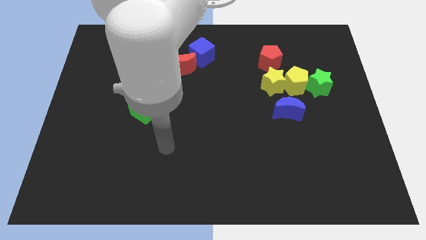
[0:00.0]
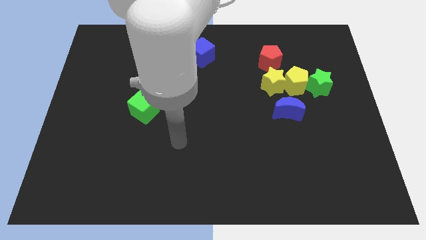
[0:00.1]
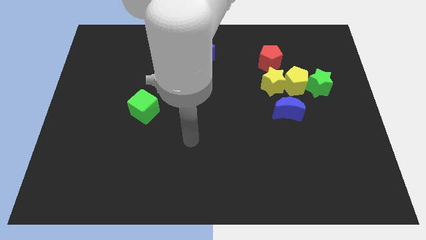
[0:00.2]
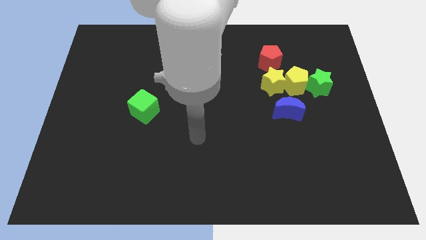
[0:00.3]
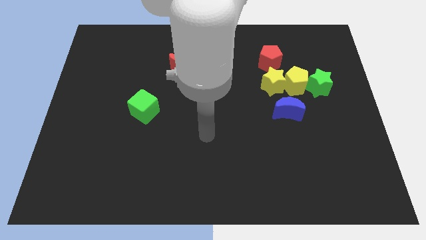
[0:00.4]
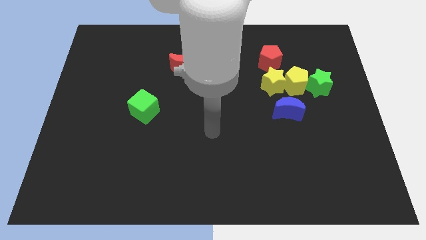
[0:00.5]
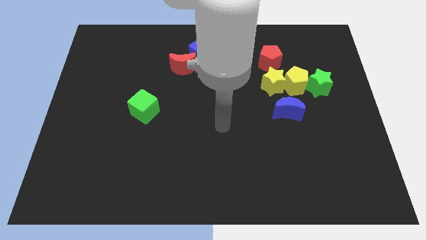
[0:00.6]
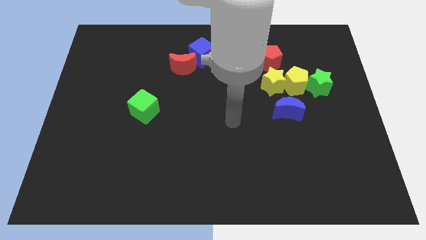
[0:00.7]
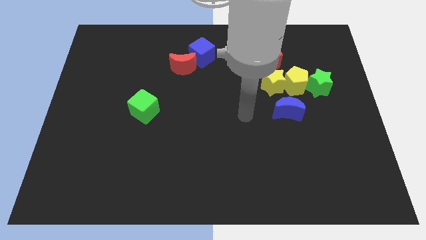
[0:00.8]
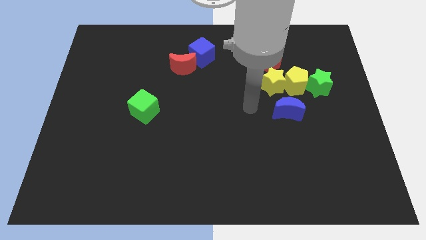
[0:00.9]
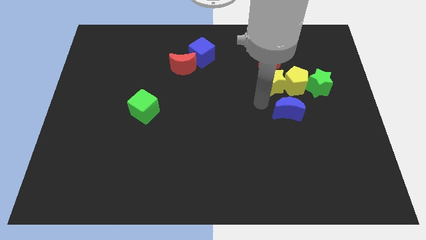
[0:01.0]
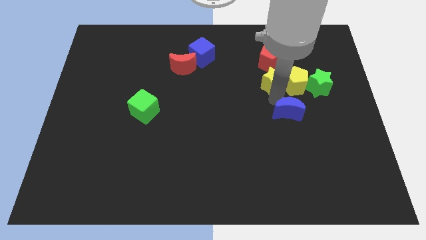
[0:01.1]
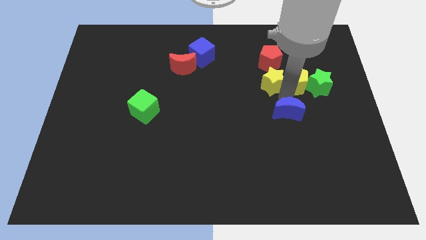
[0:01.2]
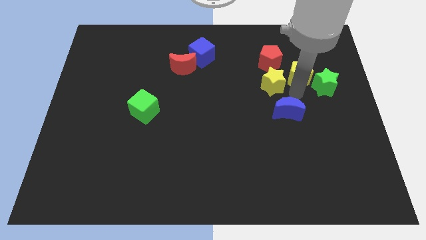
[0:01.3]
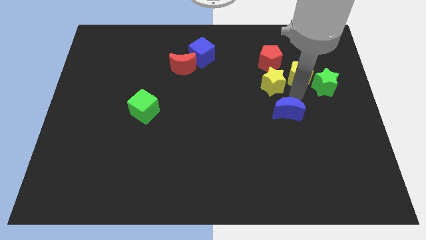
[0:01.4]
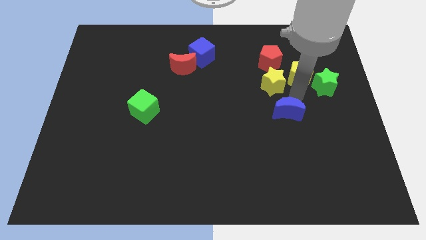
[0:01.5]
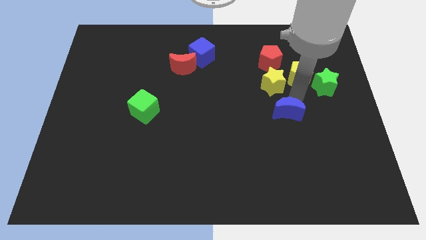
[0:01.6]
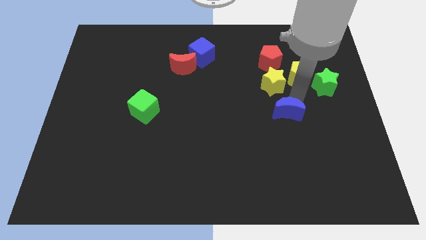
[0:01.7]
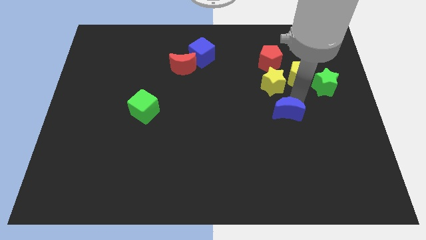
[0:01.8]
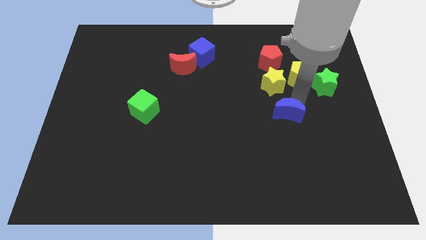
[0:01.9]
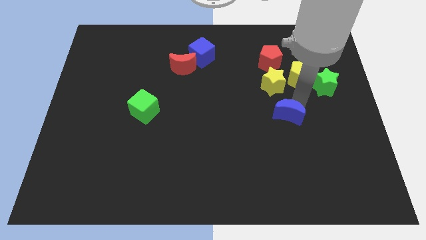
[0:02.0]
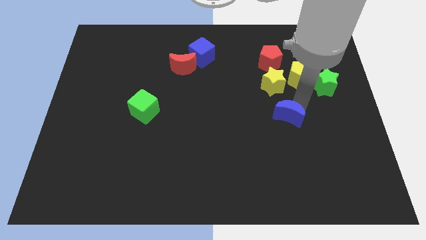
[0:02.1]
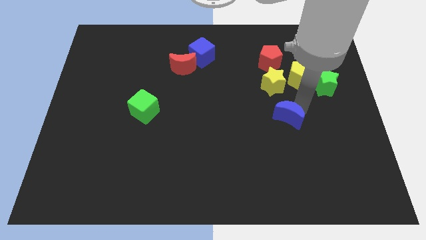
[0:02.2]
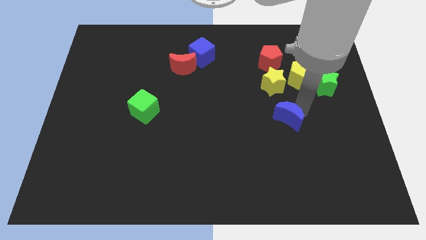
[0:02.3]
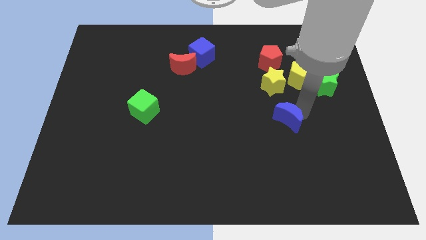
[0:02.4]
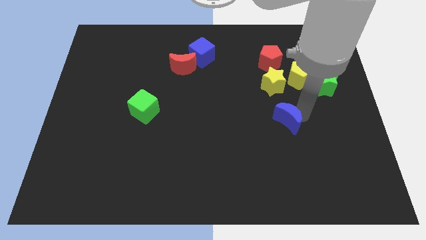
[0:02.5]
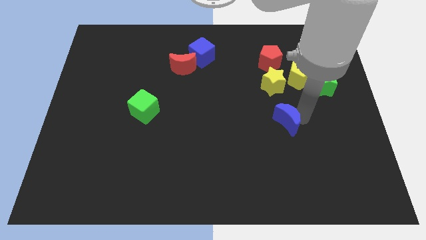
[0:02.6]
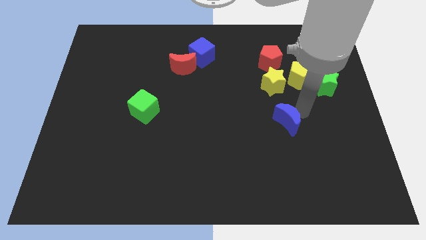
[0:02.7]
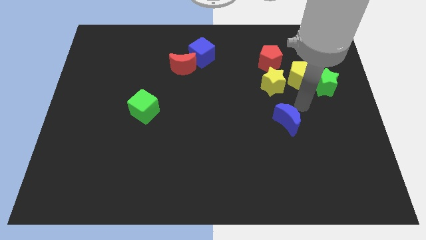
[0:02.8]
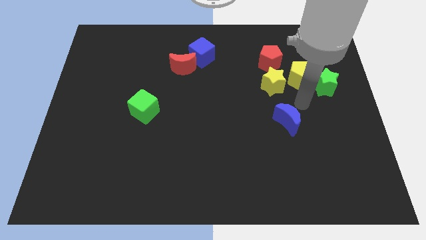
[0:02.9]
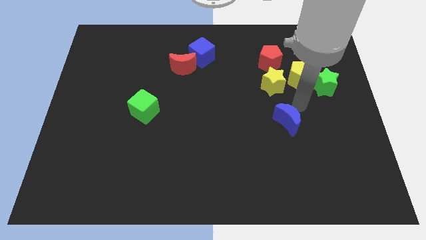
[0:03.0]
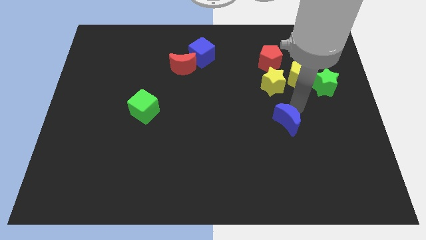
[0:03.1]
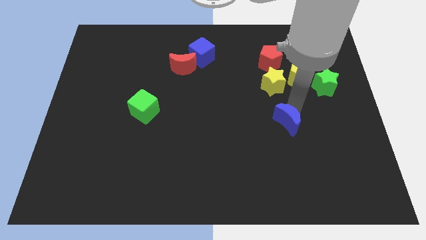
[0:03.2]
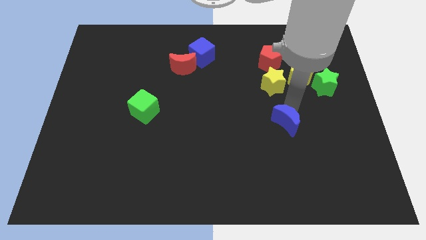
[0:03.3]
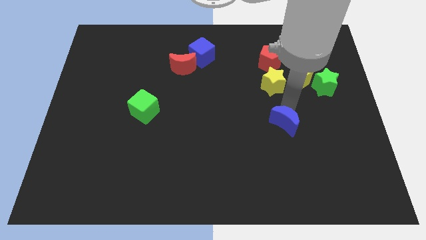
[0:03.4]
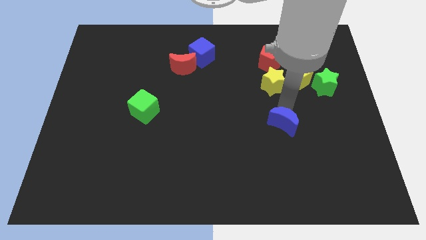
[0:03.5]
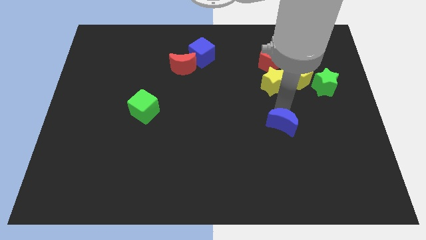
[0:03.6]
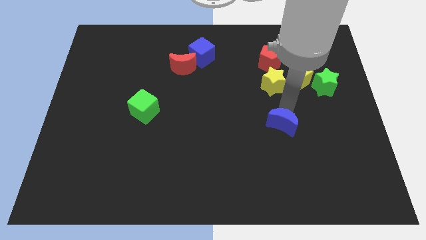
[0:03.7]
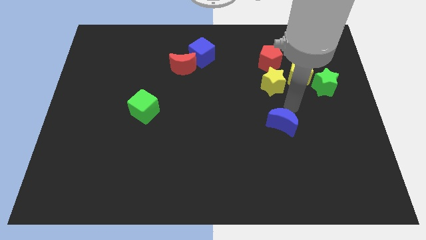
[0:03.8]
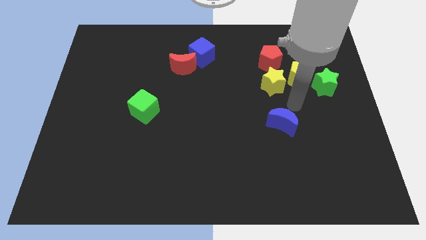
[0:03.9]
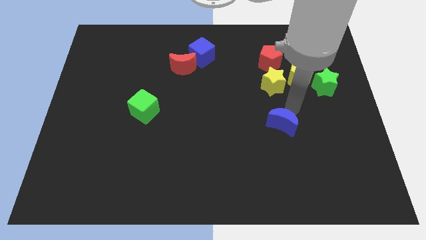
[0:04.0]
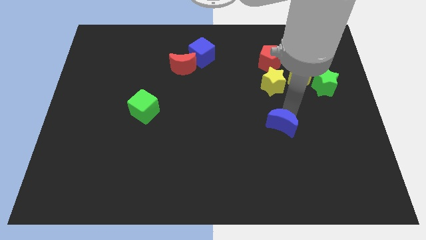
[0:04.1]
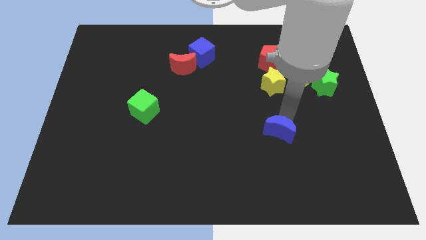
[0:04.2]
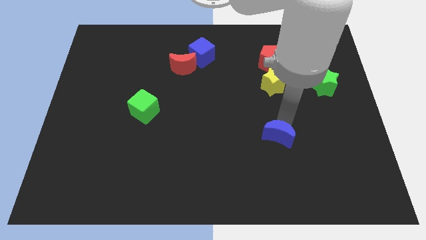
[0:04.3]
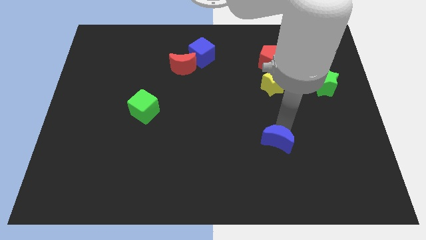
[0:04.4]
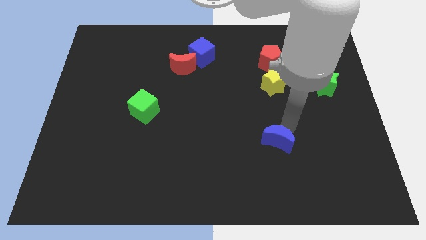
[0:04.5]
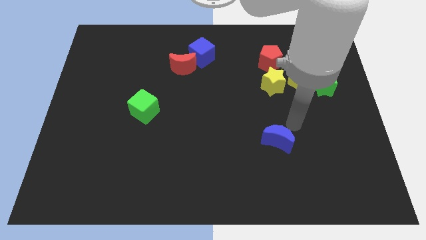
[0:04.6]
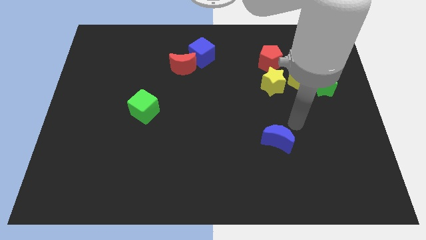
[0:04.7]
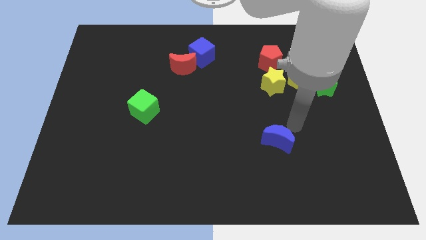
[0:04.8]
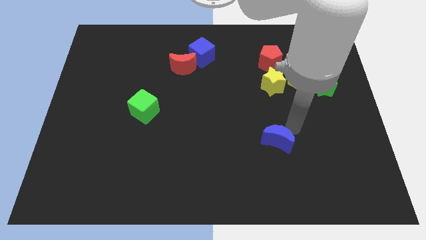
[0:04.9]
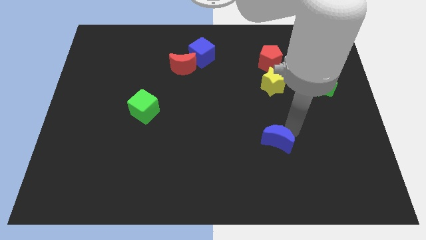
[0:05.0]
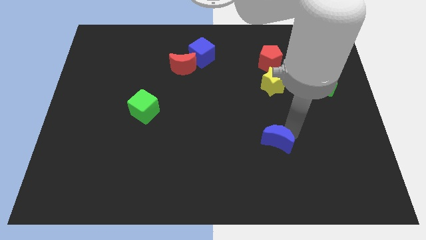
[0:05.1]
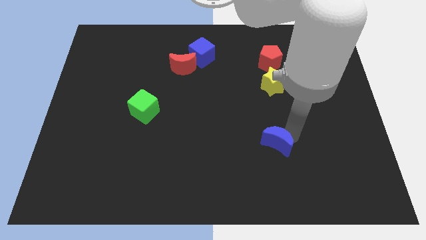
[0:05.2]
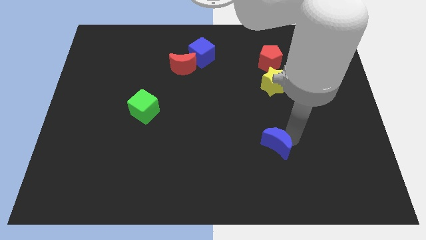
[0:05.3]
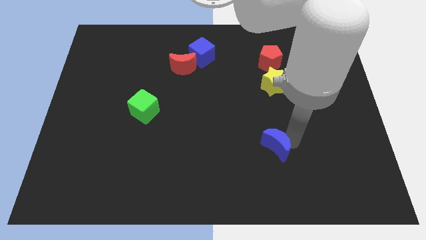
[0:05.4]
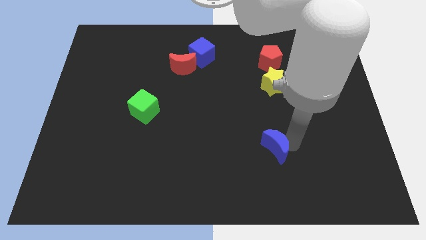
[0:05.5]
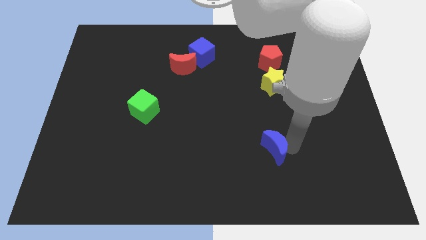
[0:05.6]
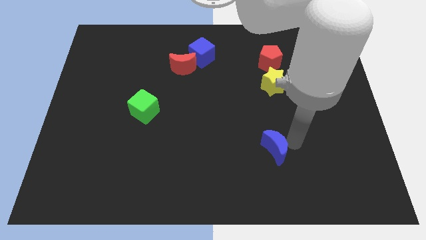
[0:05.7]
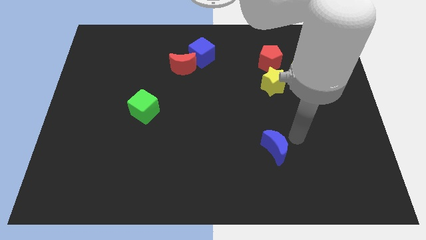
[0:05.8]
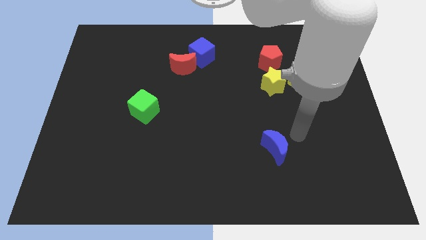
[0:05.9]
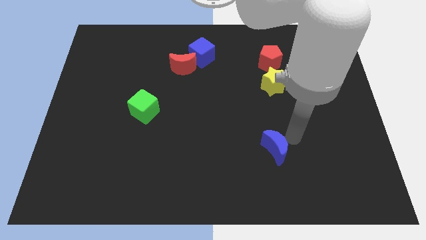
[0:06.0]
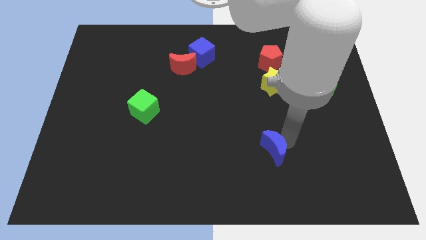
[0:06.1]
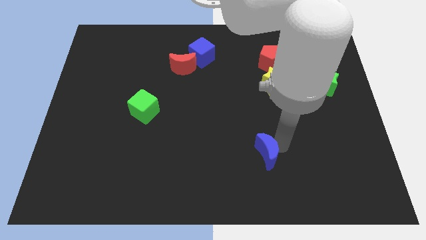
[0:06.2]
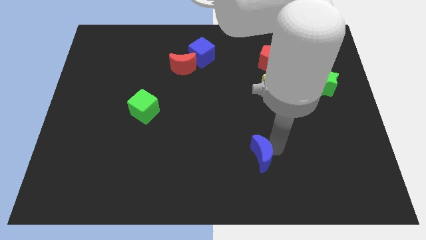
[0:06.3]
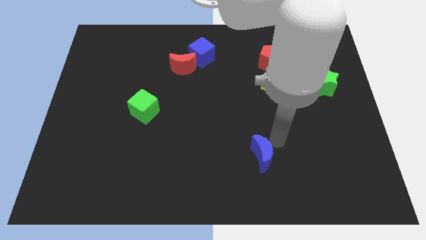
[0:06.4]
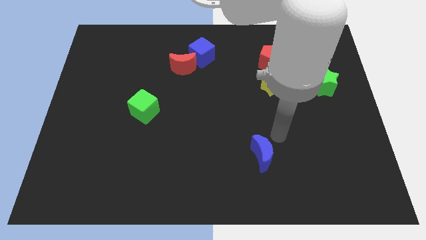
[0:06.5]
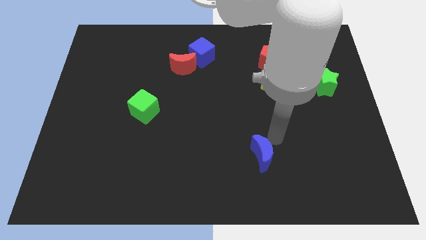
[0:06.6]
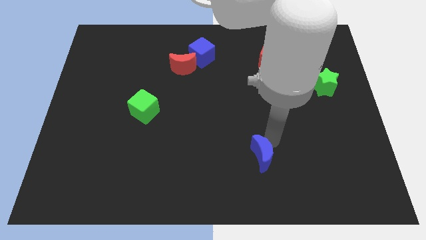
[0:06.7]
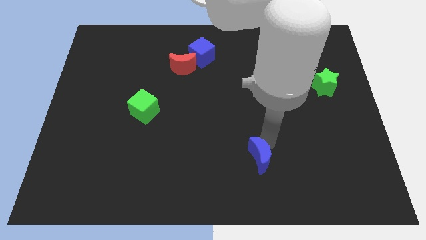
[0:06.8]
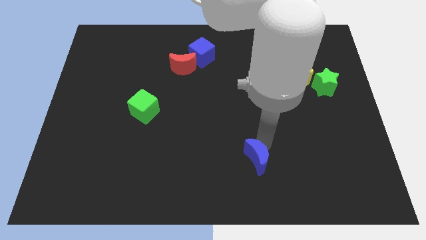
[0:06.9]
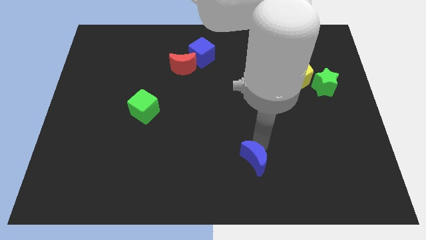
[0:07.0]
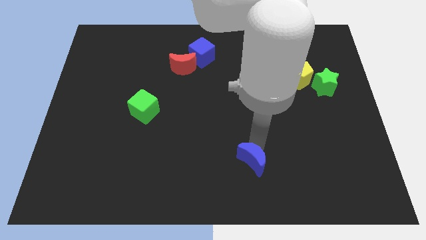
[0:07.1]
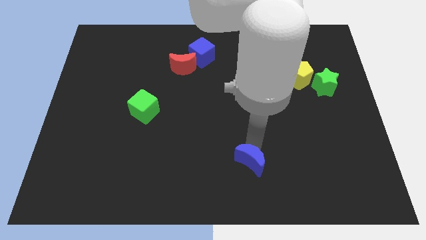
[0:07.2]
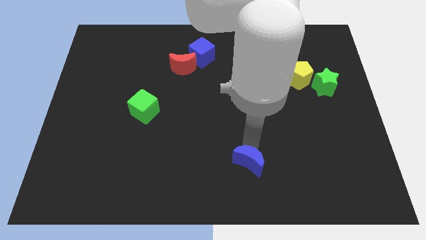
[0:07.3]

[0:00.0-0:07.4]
slide the blue moon to the bottom side
